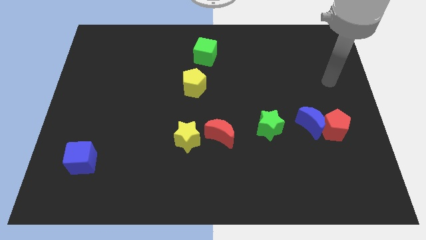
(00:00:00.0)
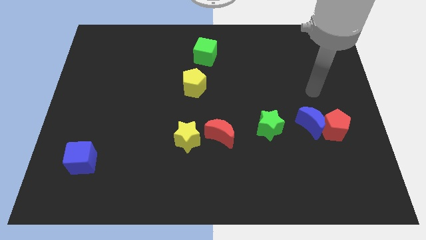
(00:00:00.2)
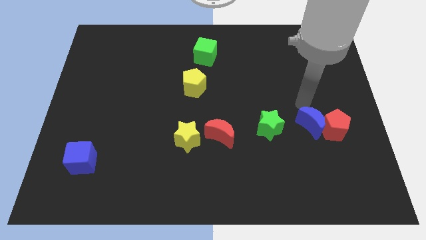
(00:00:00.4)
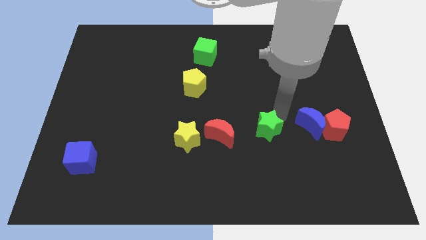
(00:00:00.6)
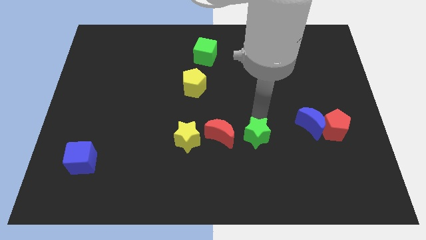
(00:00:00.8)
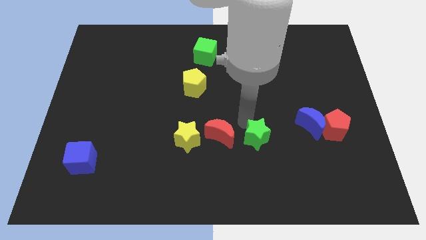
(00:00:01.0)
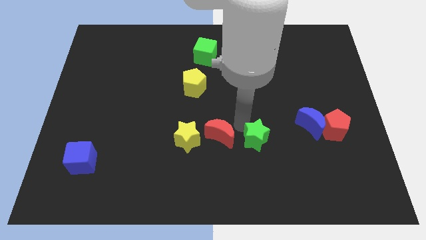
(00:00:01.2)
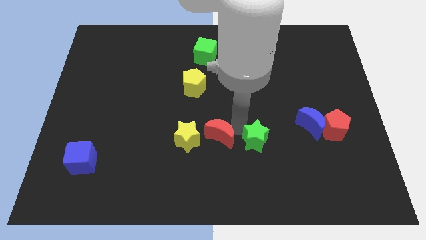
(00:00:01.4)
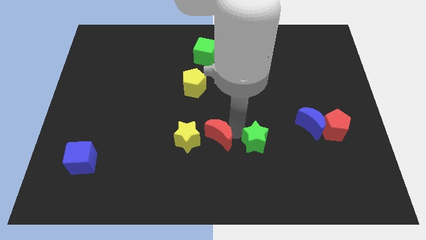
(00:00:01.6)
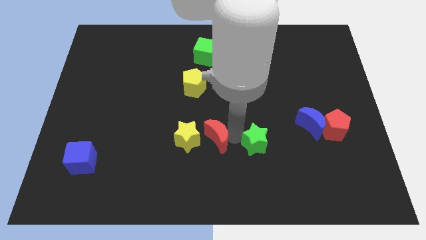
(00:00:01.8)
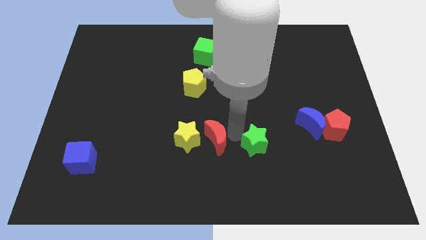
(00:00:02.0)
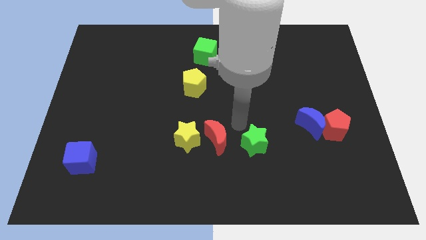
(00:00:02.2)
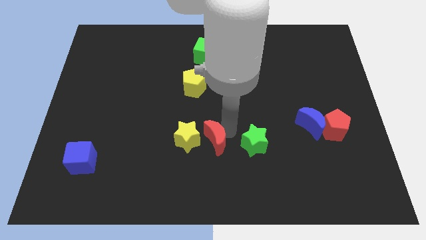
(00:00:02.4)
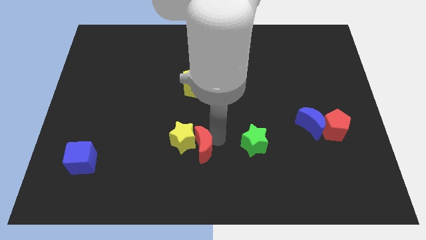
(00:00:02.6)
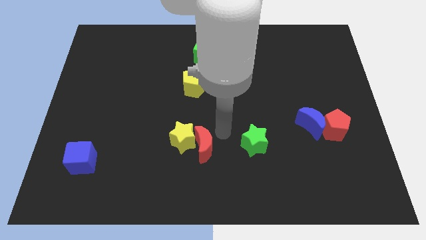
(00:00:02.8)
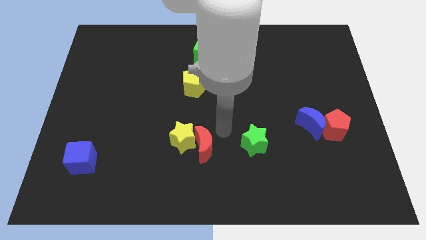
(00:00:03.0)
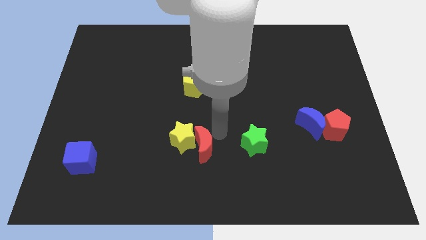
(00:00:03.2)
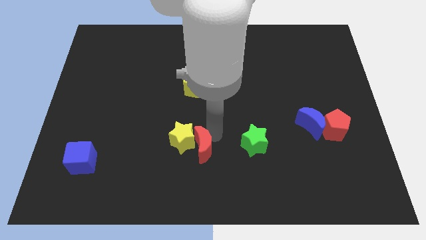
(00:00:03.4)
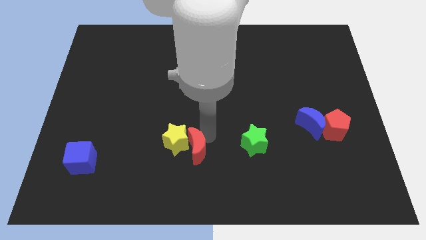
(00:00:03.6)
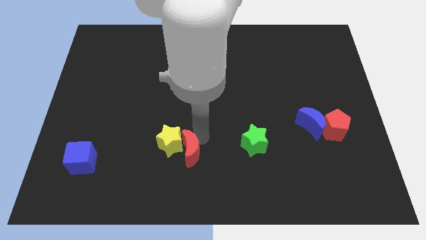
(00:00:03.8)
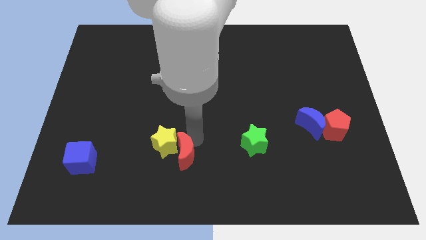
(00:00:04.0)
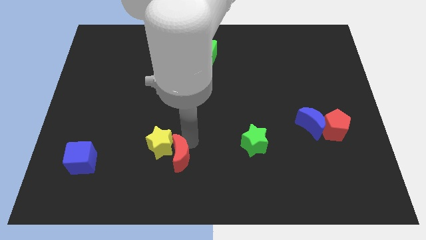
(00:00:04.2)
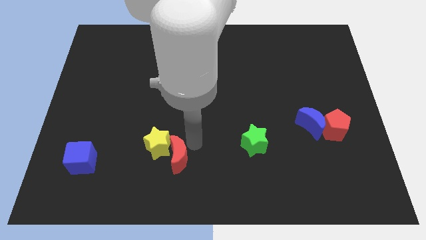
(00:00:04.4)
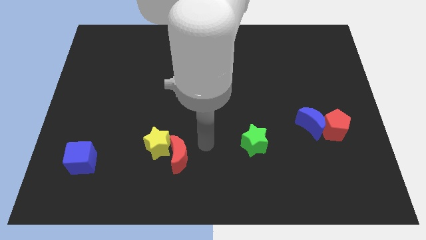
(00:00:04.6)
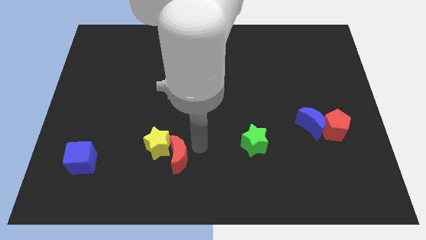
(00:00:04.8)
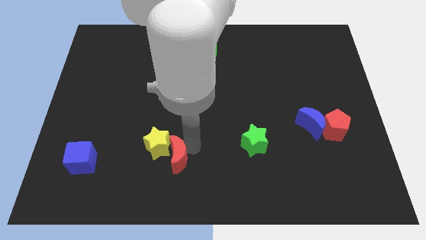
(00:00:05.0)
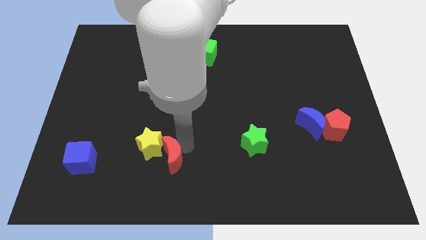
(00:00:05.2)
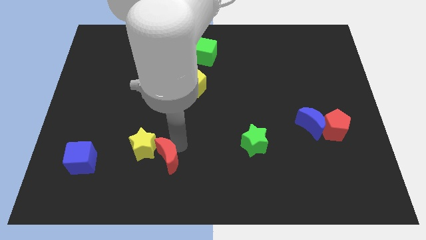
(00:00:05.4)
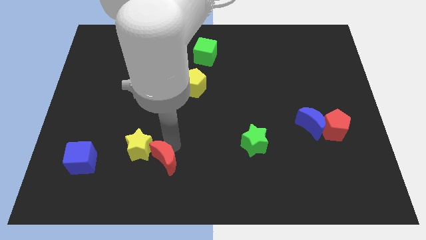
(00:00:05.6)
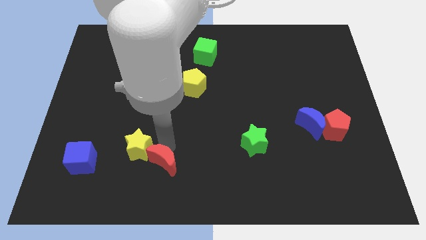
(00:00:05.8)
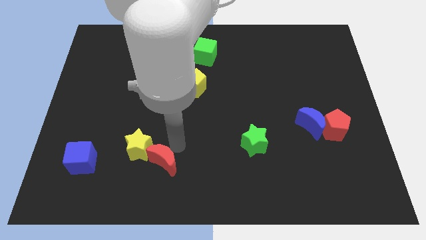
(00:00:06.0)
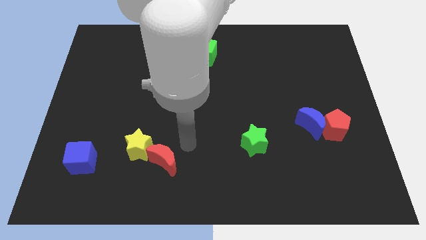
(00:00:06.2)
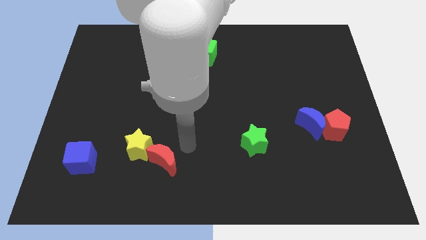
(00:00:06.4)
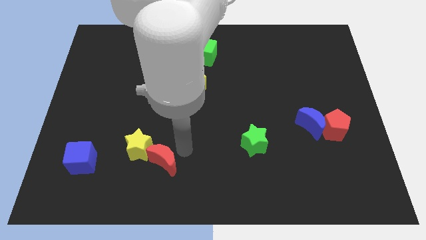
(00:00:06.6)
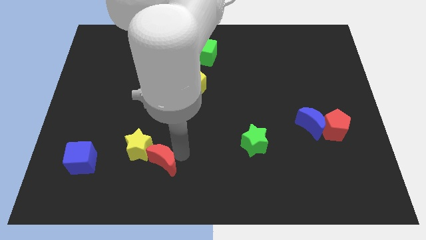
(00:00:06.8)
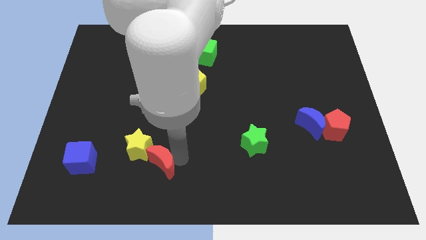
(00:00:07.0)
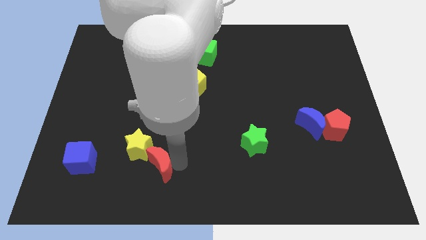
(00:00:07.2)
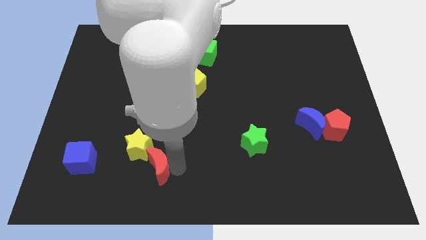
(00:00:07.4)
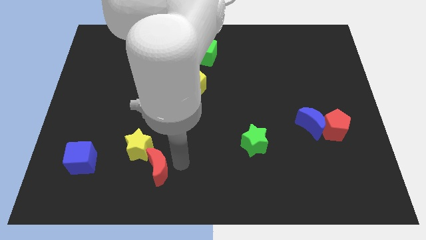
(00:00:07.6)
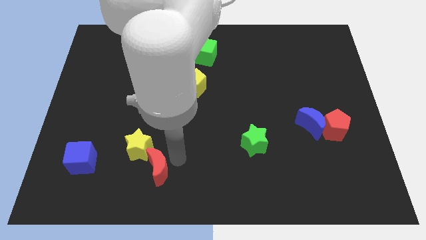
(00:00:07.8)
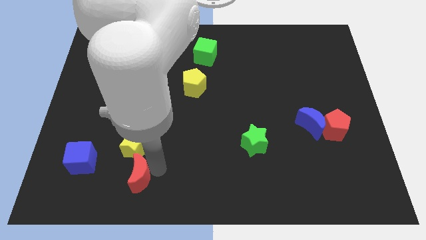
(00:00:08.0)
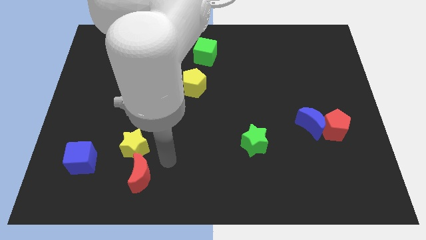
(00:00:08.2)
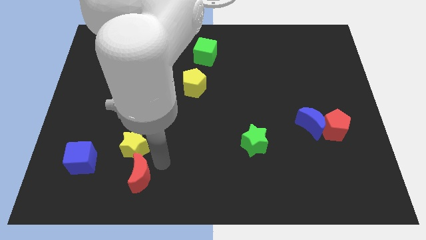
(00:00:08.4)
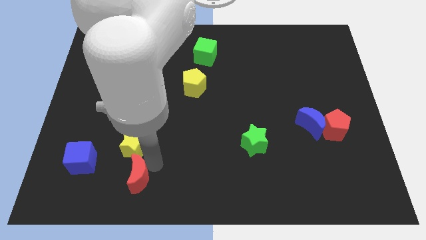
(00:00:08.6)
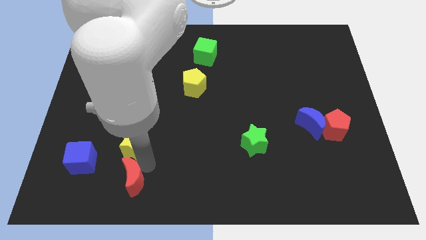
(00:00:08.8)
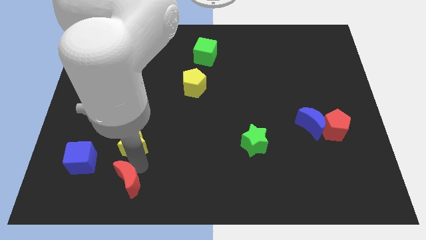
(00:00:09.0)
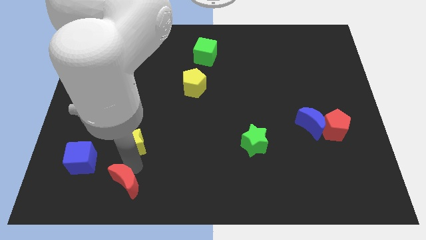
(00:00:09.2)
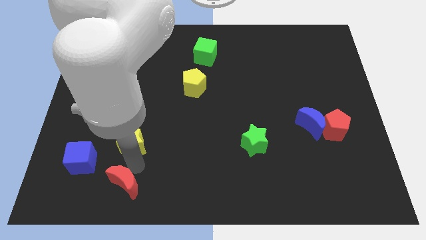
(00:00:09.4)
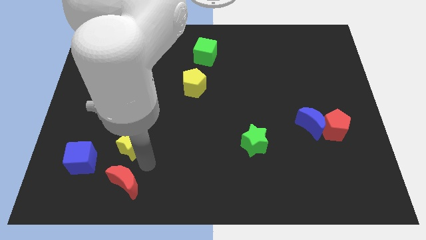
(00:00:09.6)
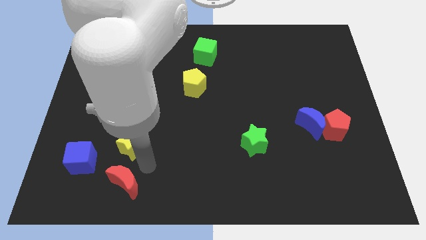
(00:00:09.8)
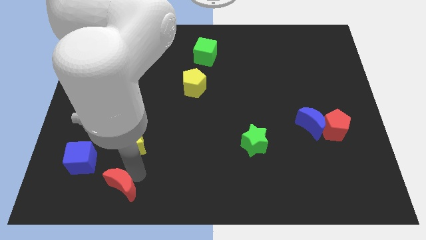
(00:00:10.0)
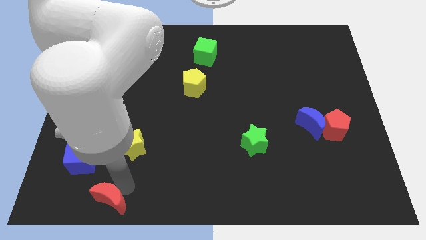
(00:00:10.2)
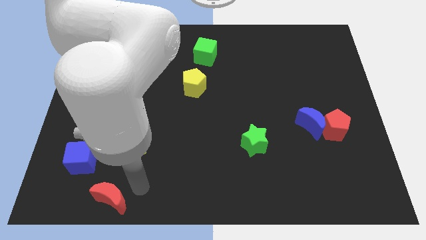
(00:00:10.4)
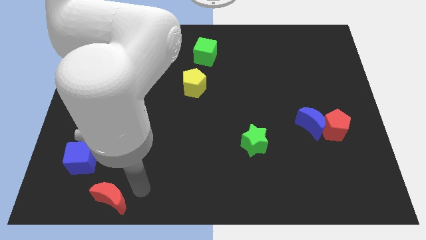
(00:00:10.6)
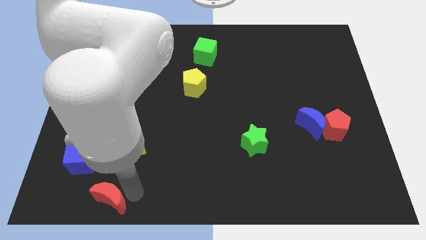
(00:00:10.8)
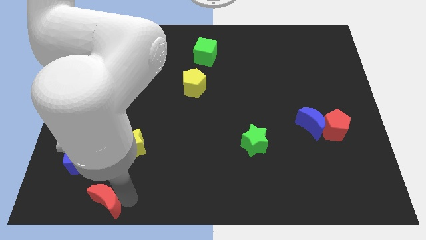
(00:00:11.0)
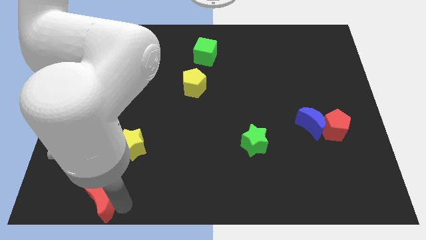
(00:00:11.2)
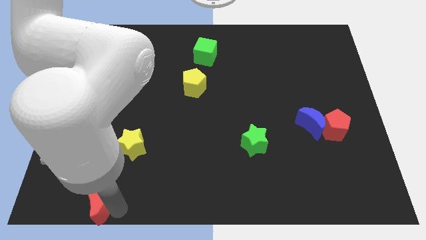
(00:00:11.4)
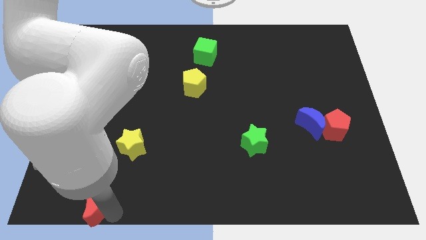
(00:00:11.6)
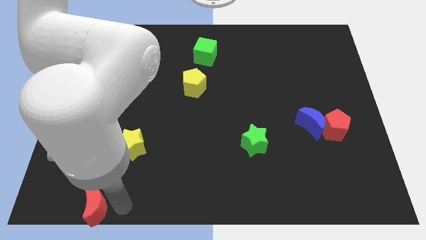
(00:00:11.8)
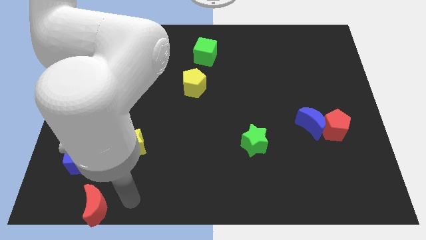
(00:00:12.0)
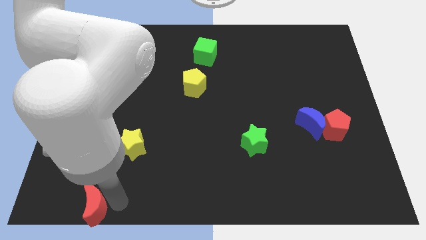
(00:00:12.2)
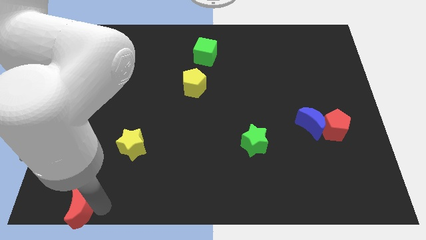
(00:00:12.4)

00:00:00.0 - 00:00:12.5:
slide the red moon to the bottom left corner
